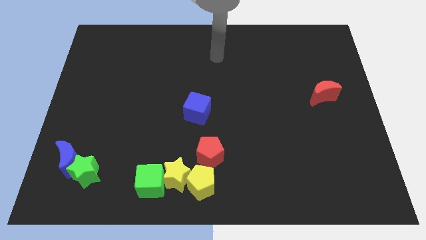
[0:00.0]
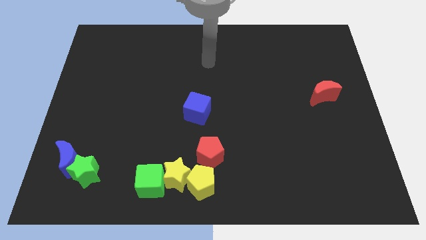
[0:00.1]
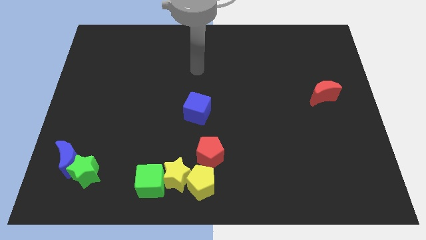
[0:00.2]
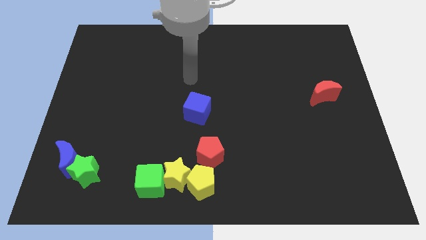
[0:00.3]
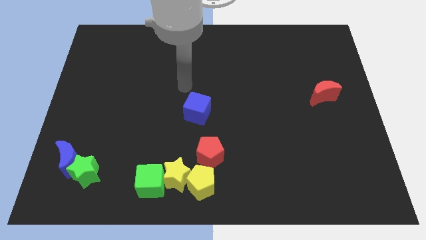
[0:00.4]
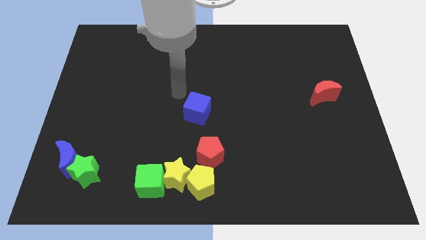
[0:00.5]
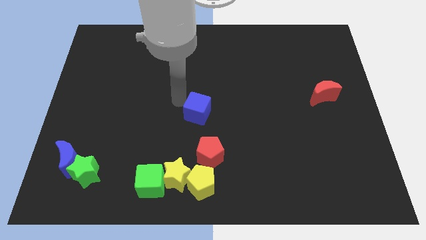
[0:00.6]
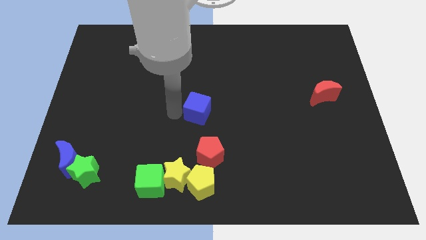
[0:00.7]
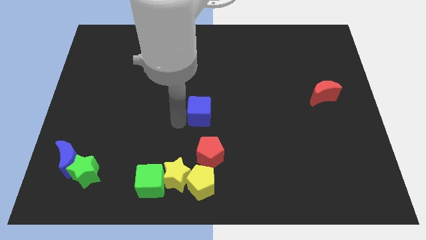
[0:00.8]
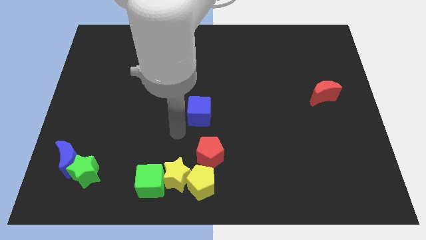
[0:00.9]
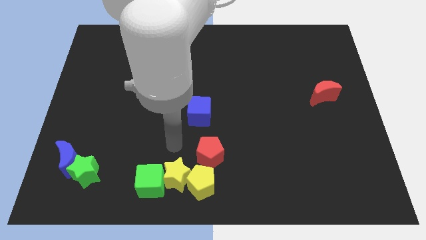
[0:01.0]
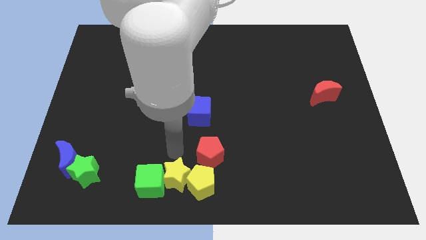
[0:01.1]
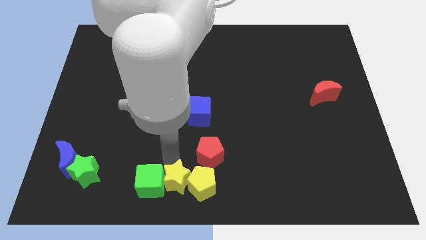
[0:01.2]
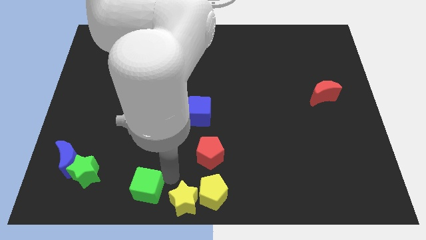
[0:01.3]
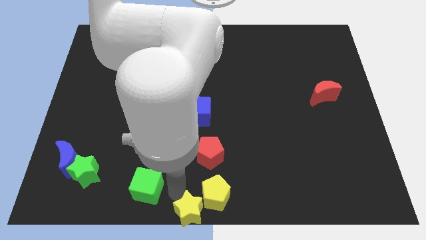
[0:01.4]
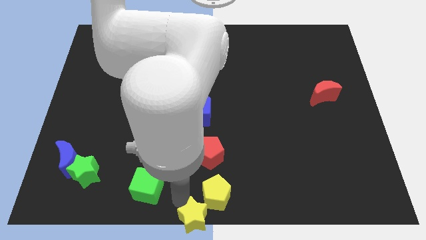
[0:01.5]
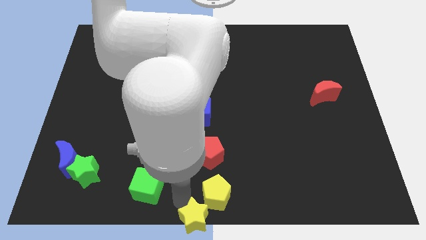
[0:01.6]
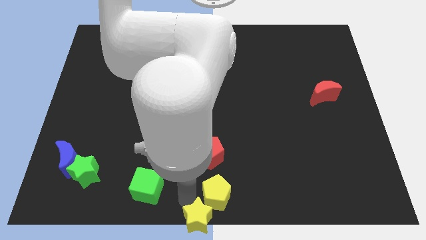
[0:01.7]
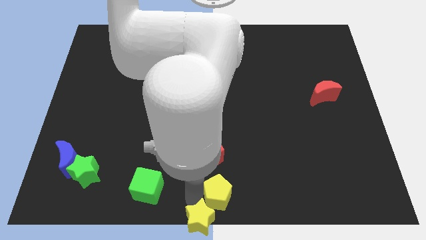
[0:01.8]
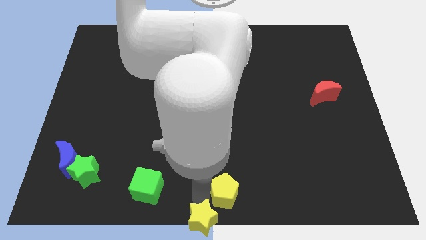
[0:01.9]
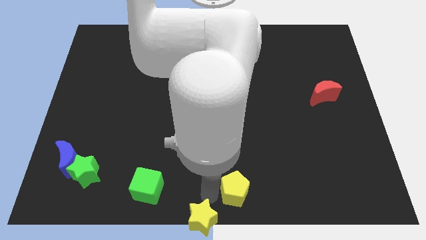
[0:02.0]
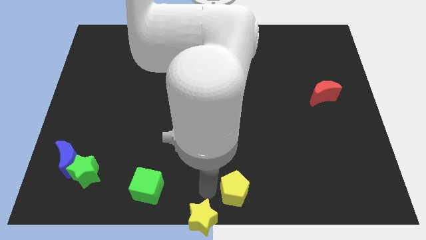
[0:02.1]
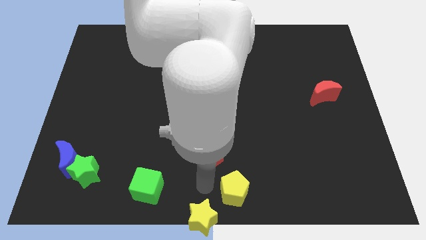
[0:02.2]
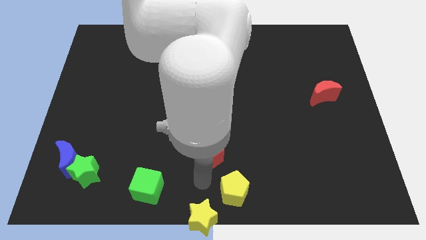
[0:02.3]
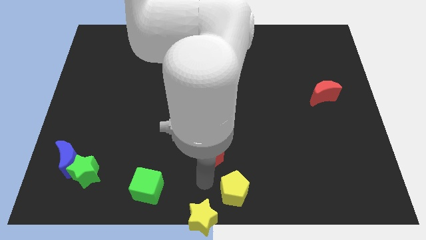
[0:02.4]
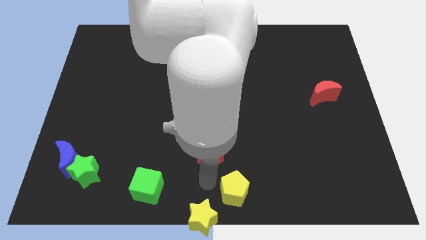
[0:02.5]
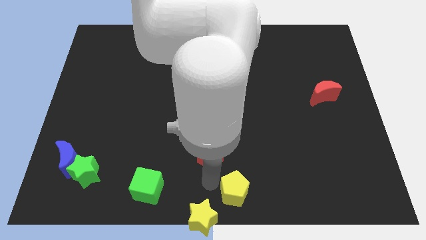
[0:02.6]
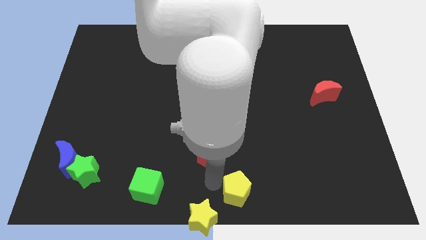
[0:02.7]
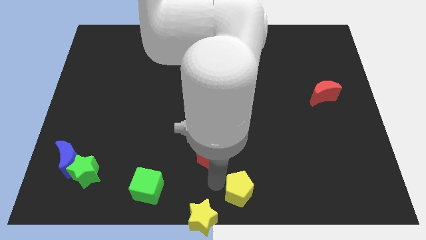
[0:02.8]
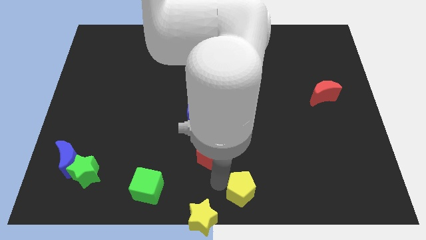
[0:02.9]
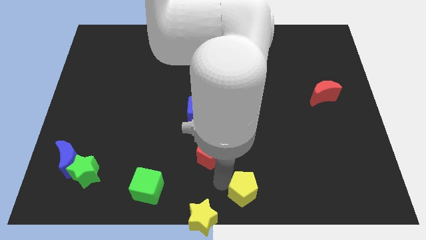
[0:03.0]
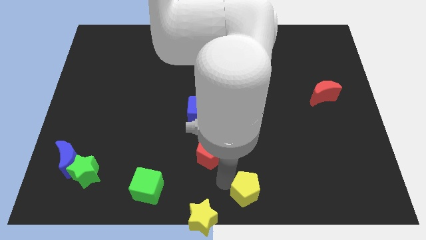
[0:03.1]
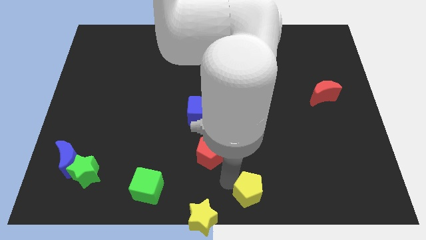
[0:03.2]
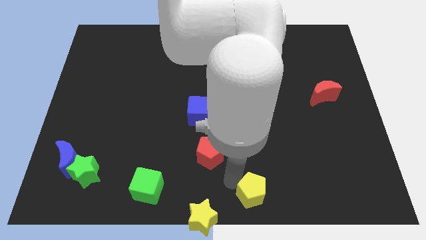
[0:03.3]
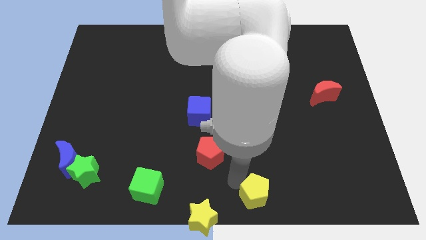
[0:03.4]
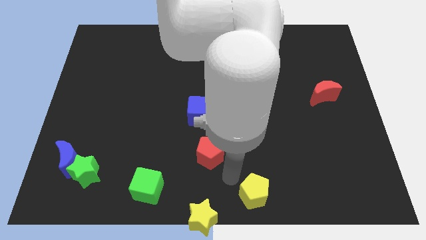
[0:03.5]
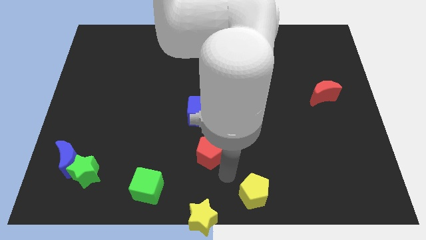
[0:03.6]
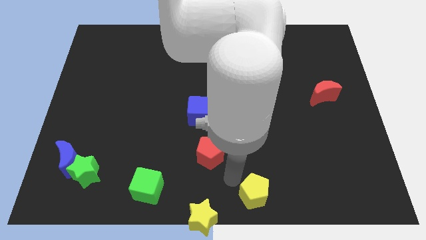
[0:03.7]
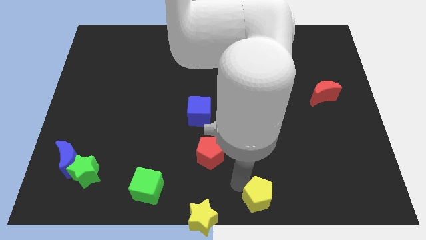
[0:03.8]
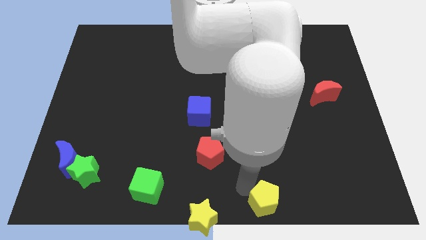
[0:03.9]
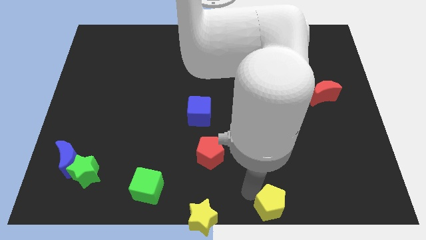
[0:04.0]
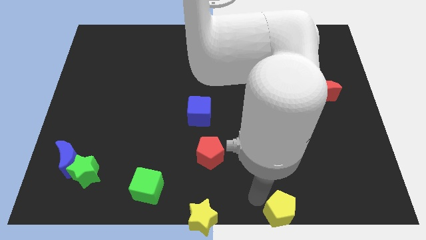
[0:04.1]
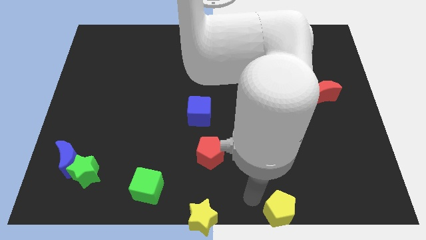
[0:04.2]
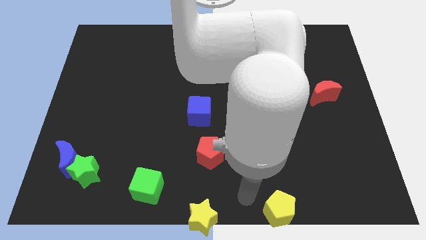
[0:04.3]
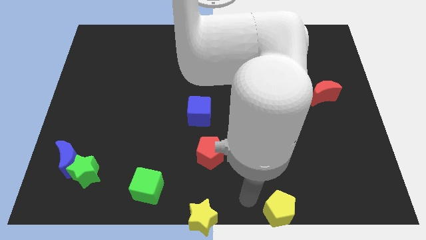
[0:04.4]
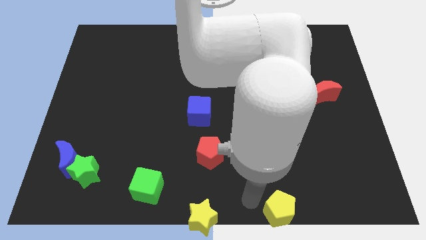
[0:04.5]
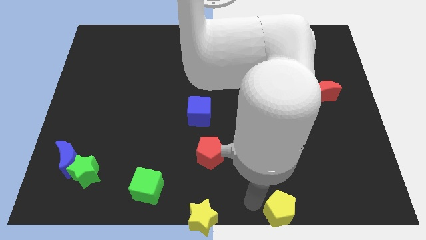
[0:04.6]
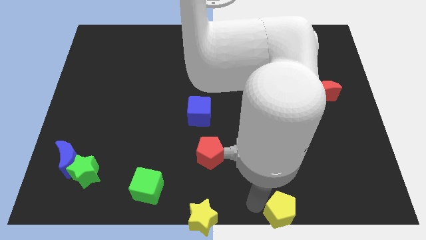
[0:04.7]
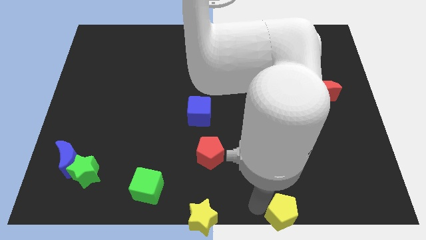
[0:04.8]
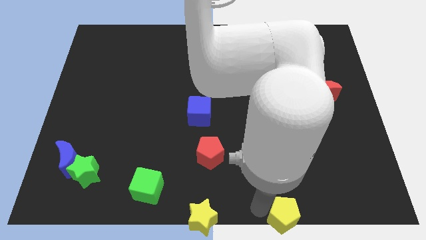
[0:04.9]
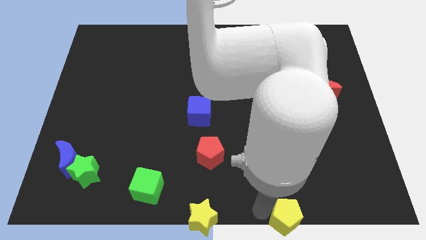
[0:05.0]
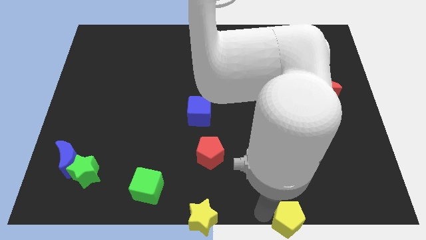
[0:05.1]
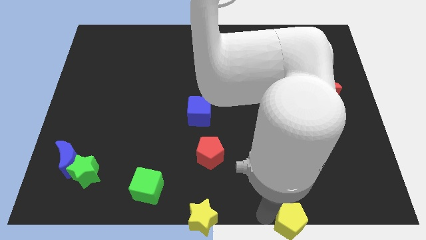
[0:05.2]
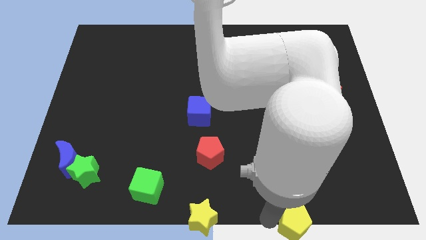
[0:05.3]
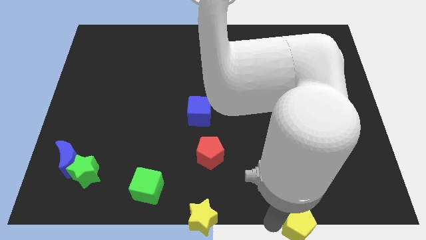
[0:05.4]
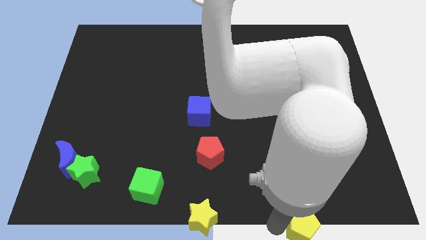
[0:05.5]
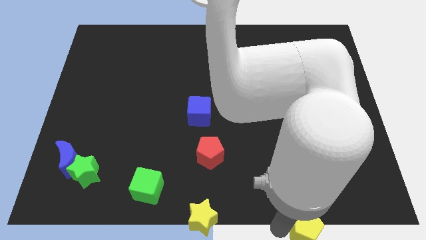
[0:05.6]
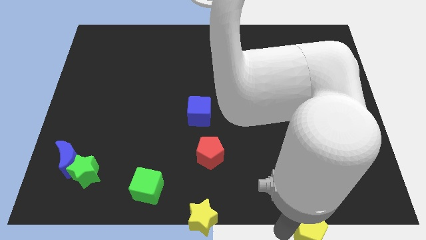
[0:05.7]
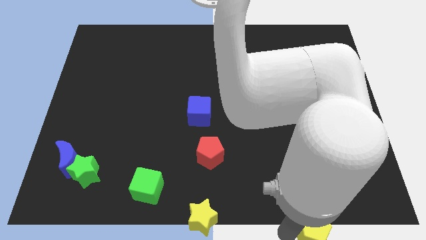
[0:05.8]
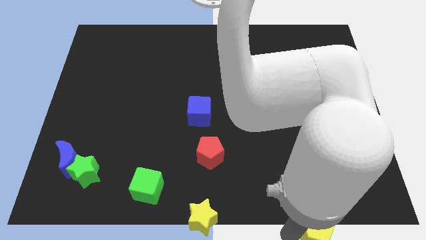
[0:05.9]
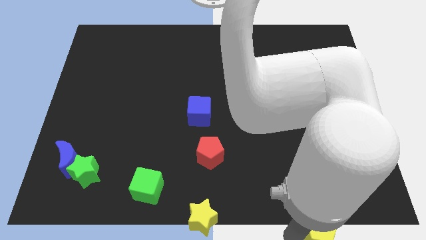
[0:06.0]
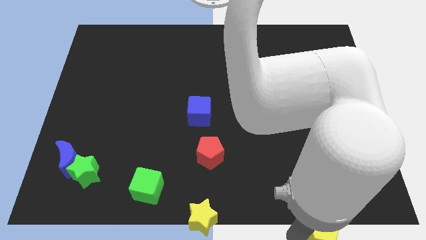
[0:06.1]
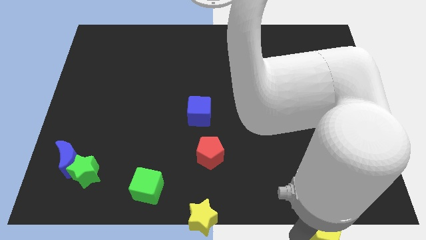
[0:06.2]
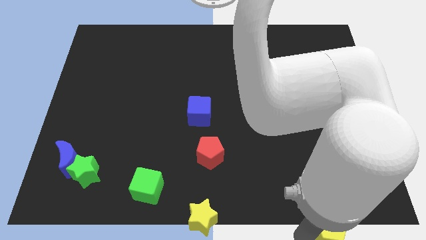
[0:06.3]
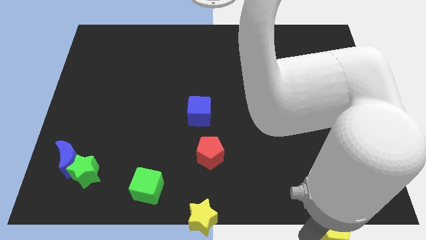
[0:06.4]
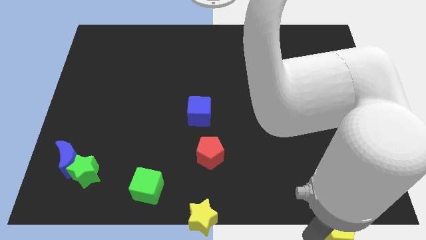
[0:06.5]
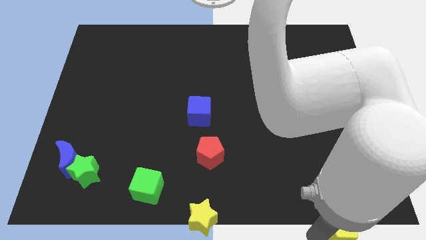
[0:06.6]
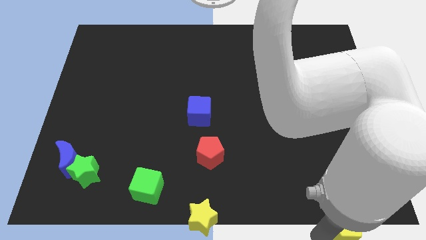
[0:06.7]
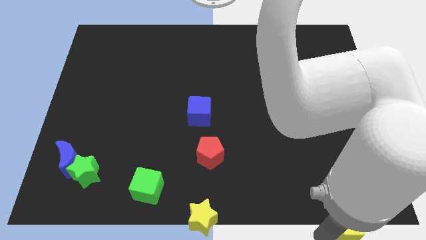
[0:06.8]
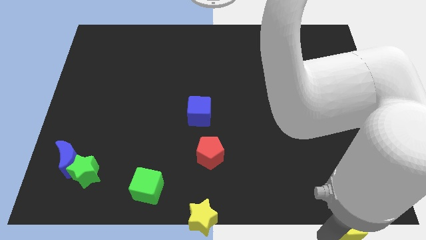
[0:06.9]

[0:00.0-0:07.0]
slide the yellow pentagon to the bottom right
